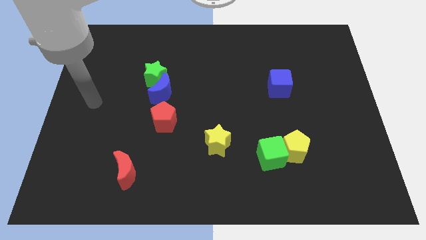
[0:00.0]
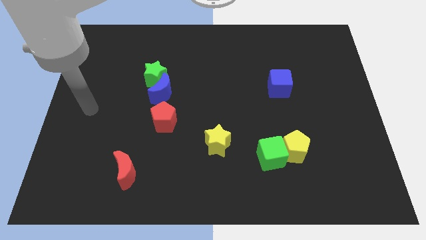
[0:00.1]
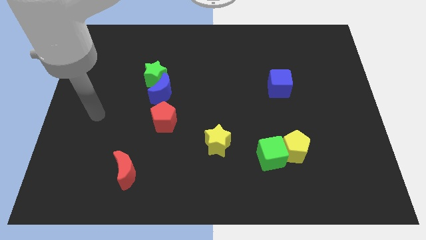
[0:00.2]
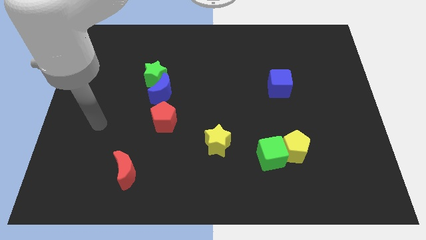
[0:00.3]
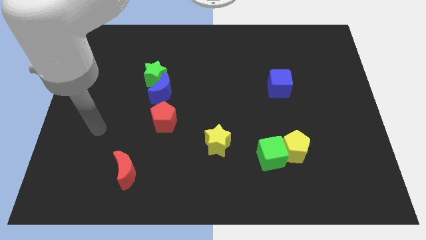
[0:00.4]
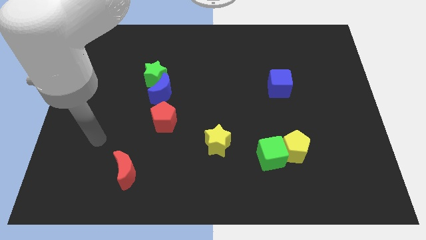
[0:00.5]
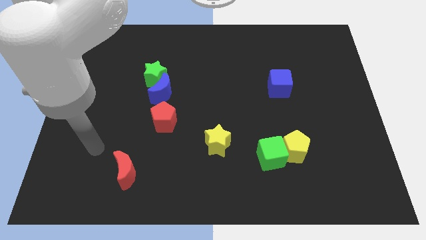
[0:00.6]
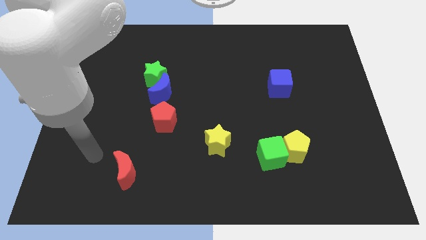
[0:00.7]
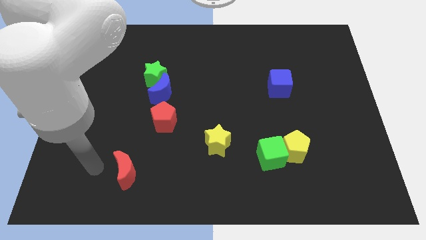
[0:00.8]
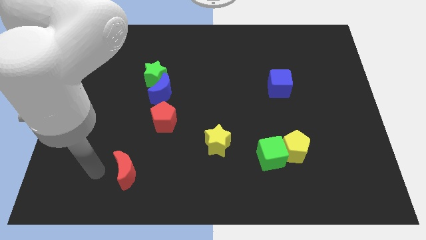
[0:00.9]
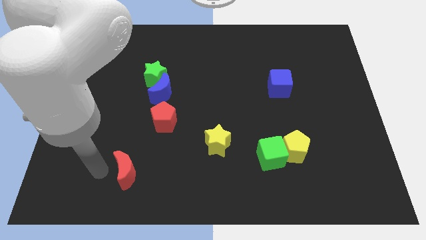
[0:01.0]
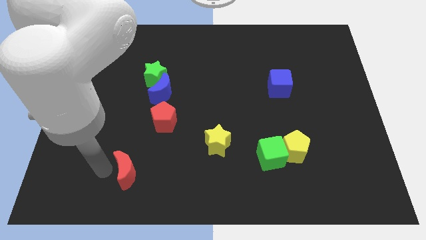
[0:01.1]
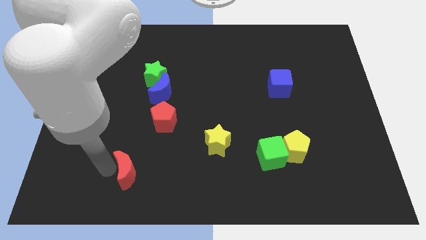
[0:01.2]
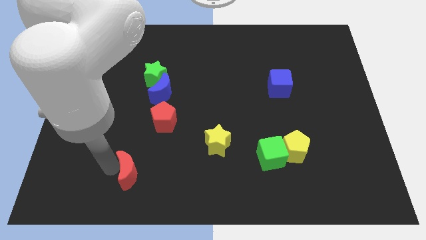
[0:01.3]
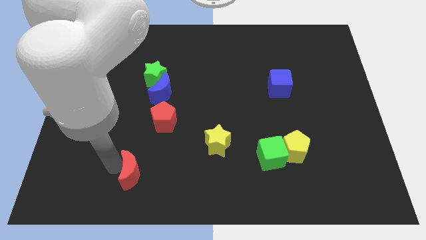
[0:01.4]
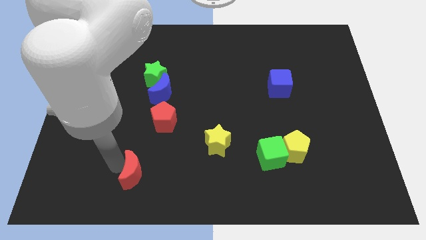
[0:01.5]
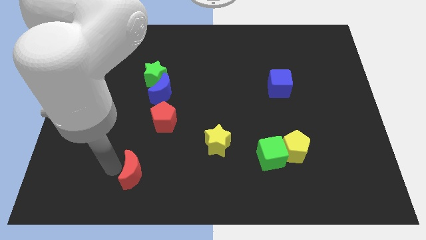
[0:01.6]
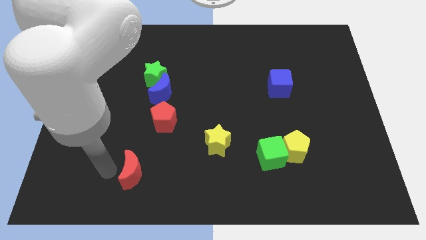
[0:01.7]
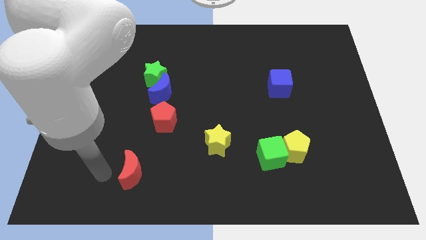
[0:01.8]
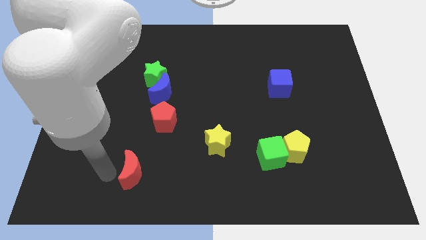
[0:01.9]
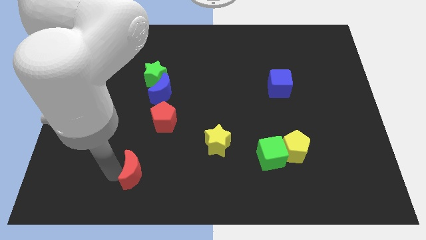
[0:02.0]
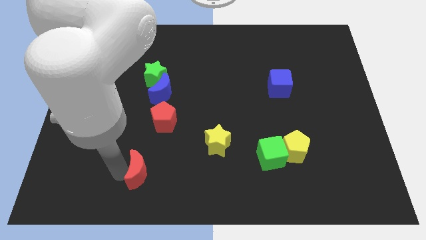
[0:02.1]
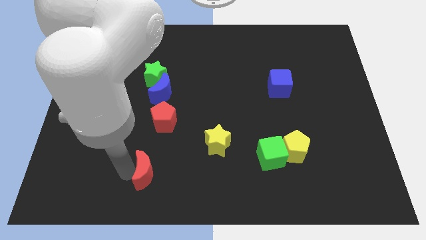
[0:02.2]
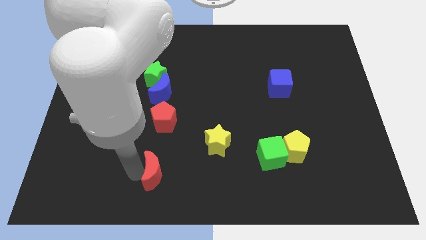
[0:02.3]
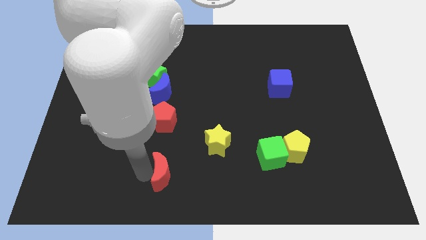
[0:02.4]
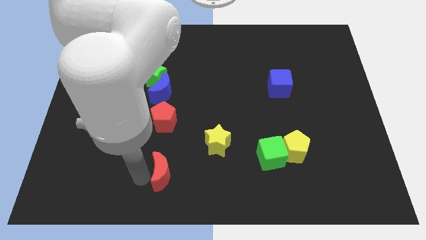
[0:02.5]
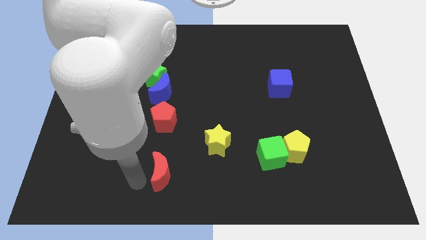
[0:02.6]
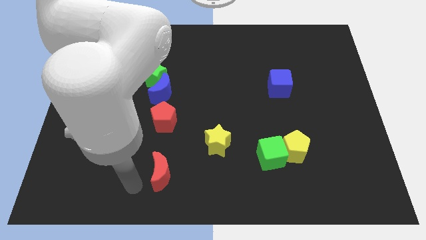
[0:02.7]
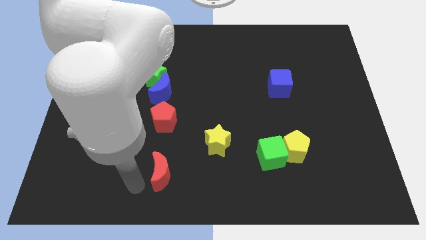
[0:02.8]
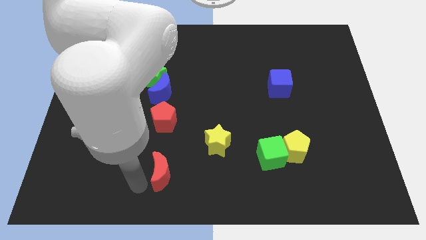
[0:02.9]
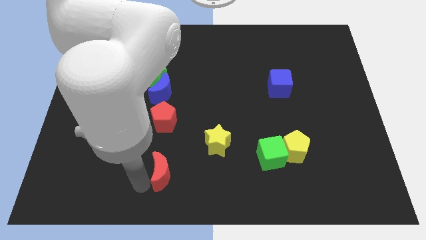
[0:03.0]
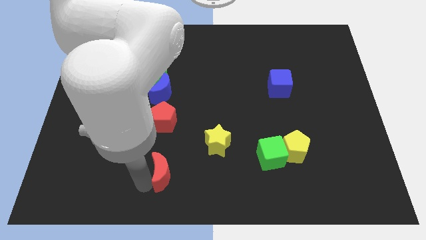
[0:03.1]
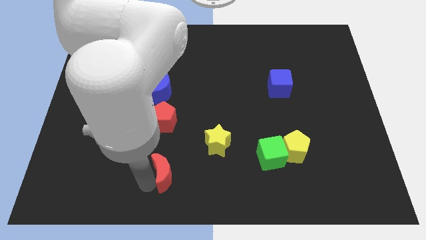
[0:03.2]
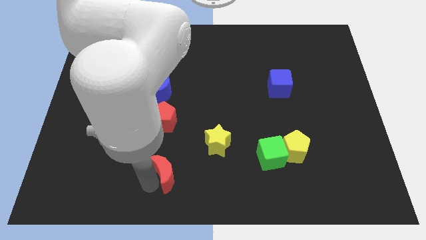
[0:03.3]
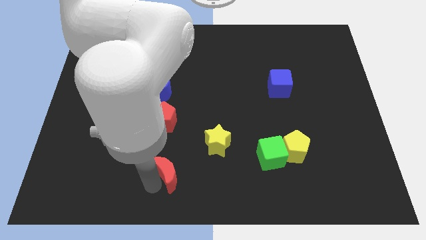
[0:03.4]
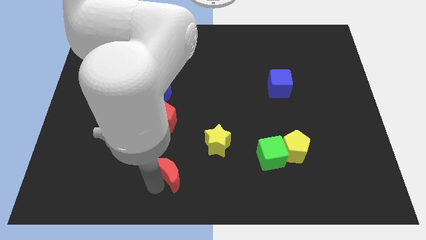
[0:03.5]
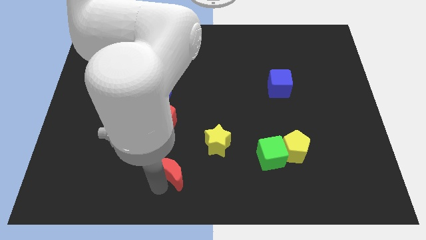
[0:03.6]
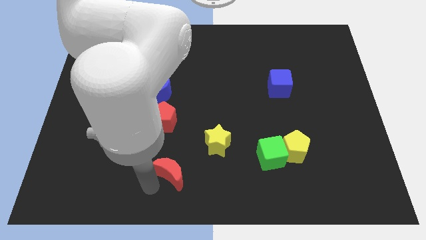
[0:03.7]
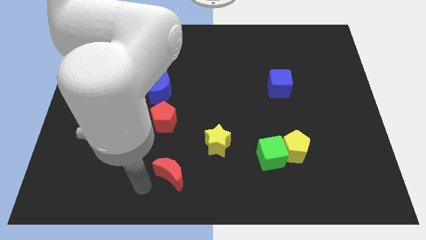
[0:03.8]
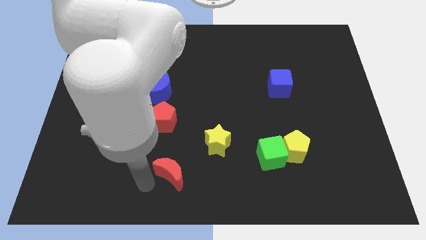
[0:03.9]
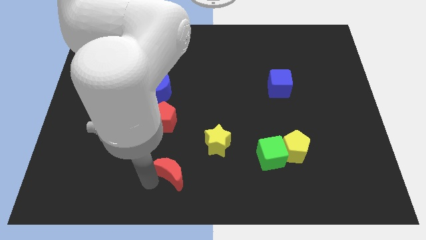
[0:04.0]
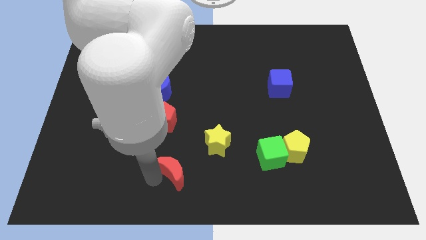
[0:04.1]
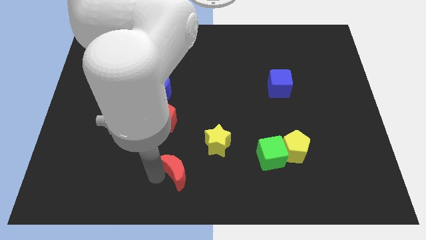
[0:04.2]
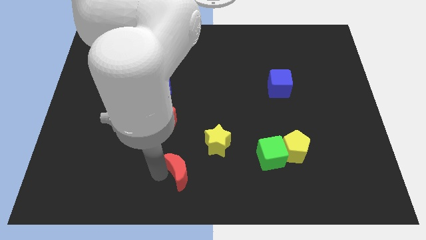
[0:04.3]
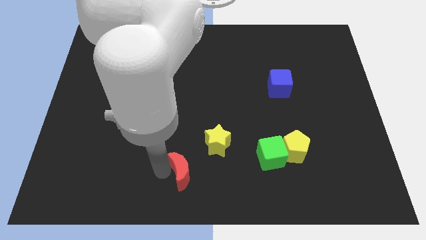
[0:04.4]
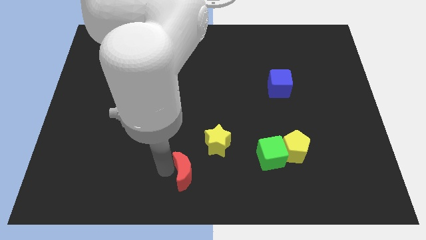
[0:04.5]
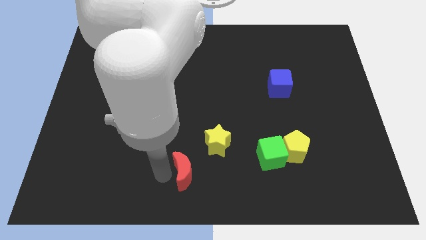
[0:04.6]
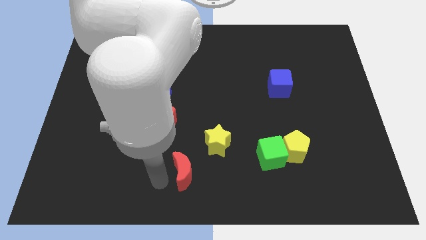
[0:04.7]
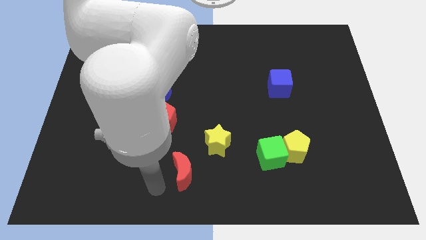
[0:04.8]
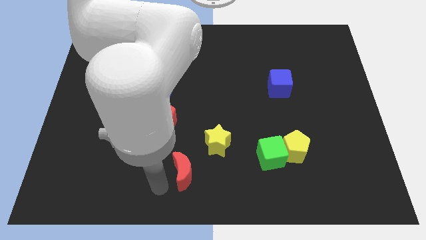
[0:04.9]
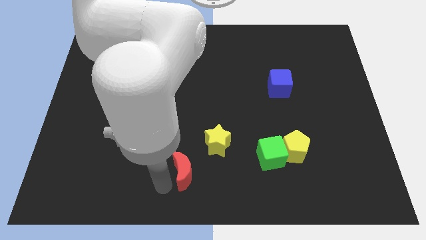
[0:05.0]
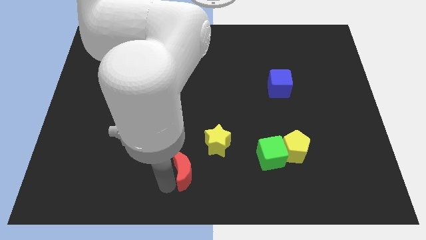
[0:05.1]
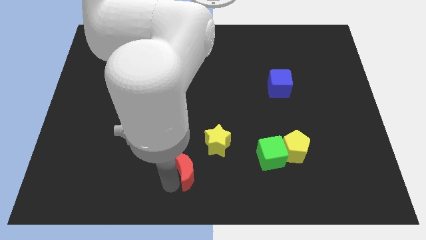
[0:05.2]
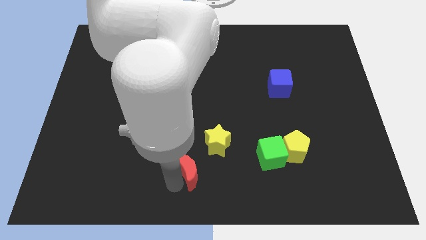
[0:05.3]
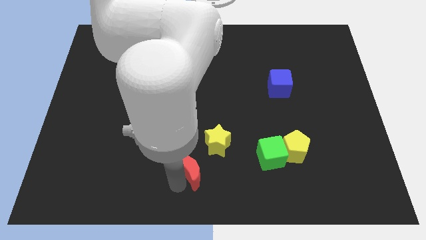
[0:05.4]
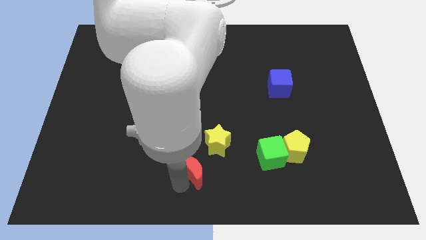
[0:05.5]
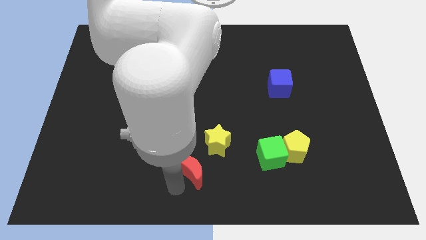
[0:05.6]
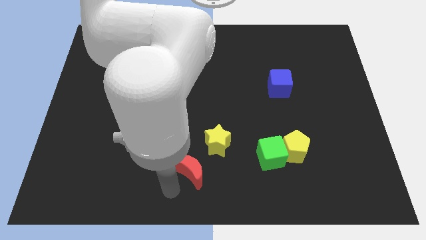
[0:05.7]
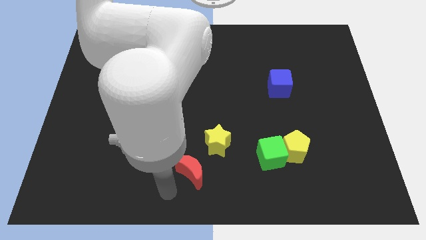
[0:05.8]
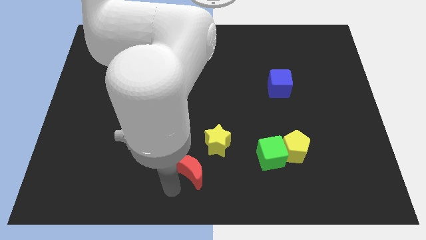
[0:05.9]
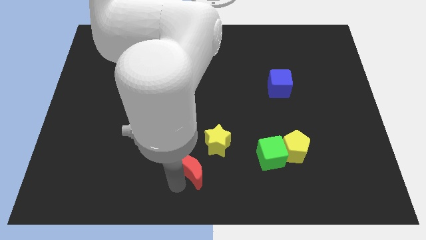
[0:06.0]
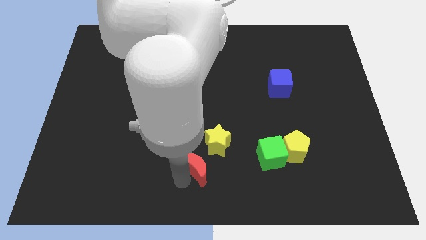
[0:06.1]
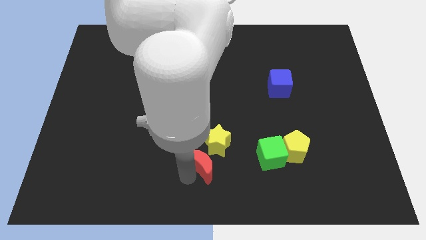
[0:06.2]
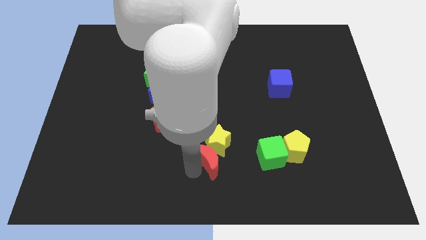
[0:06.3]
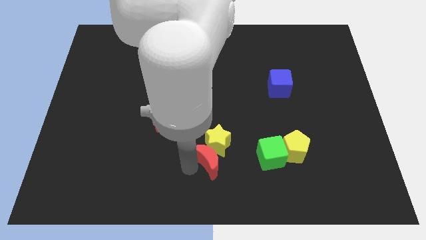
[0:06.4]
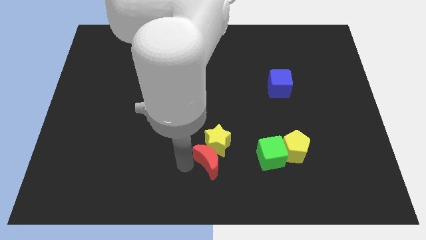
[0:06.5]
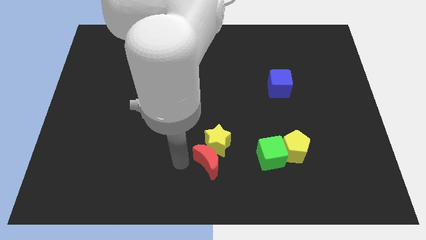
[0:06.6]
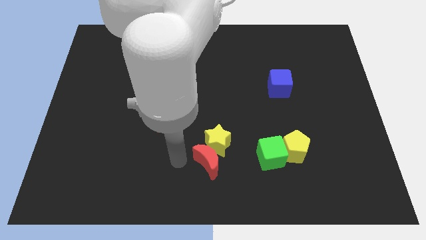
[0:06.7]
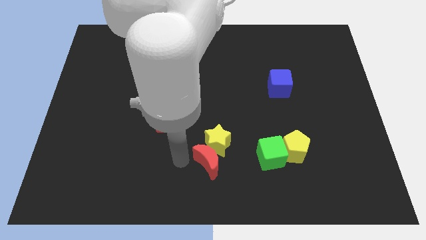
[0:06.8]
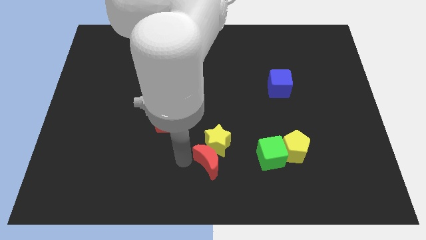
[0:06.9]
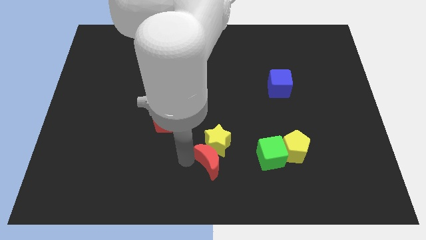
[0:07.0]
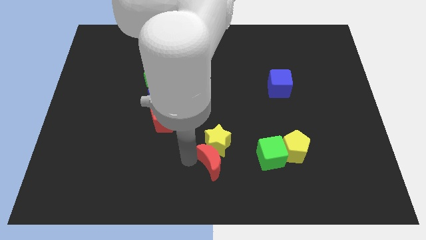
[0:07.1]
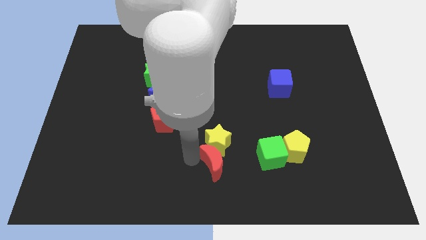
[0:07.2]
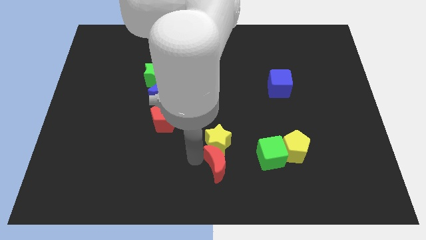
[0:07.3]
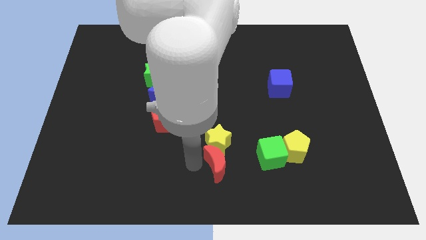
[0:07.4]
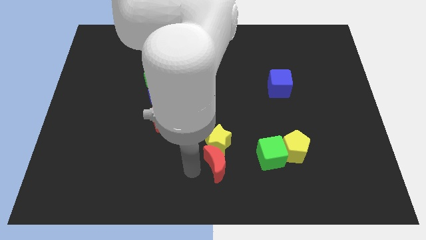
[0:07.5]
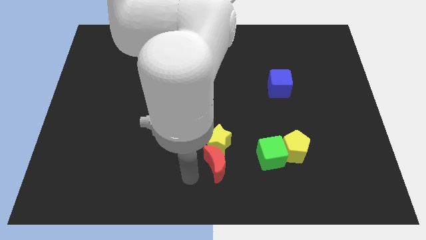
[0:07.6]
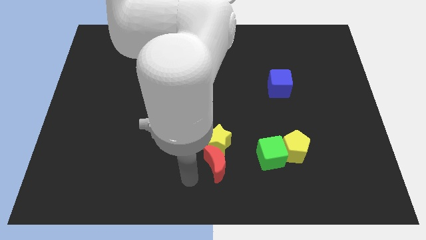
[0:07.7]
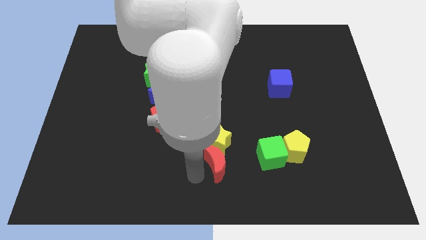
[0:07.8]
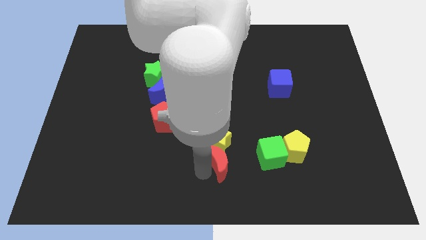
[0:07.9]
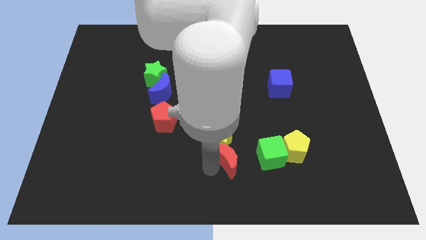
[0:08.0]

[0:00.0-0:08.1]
push the red moon to the left side of the yellow pentagon
